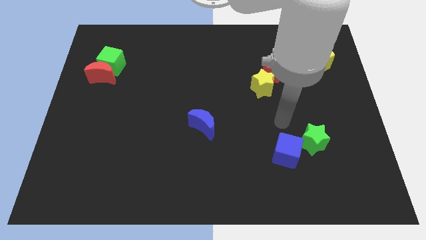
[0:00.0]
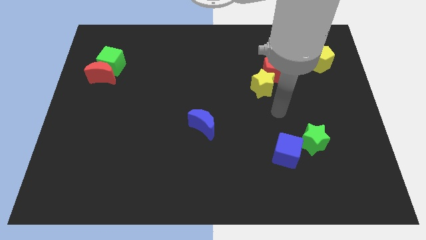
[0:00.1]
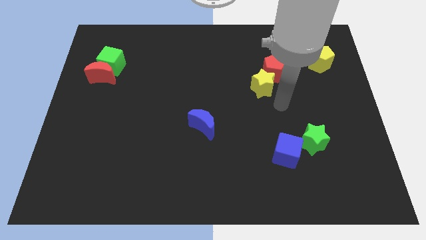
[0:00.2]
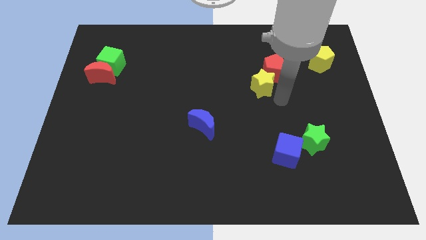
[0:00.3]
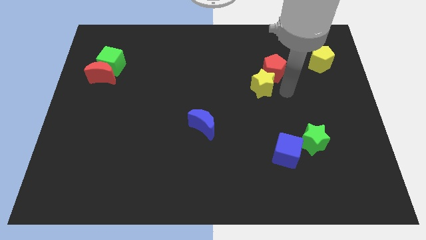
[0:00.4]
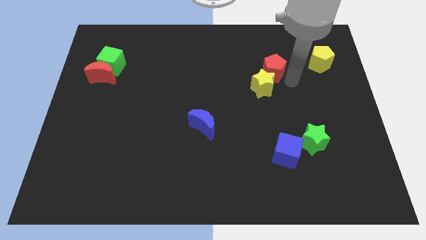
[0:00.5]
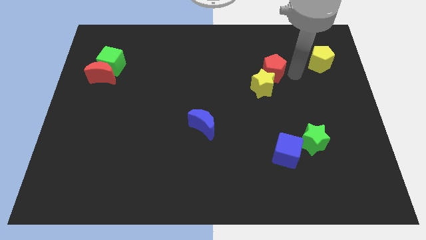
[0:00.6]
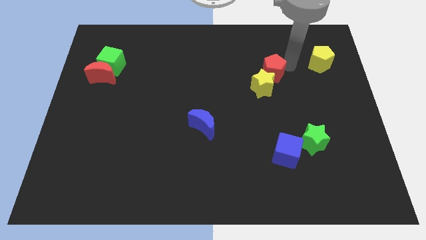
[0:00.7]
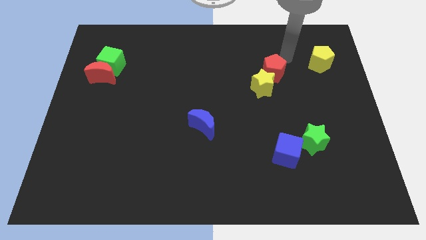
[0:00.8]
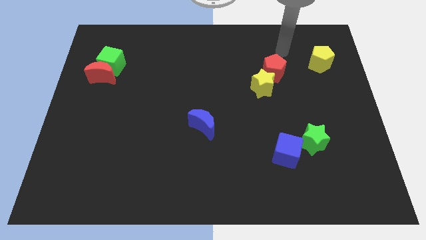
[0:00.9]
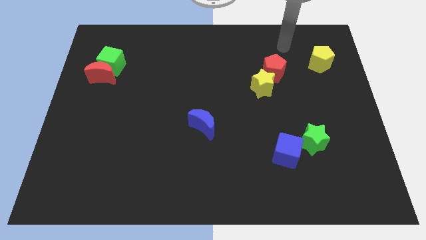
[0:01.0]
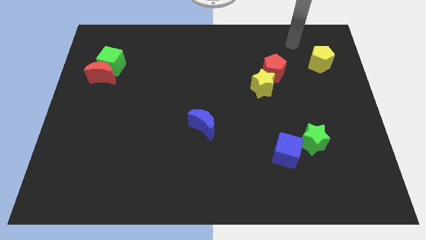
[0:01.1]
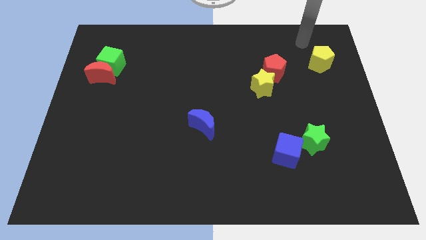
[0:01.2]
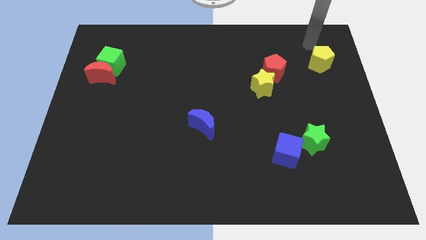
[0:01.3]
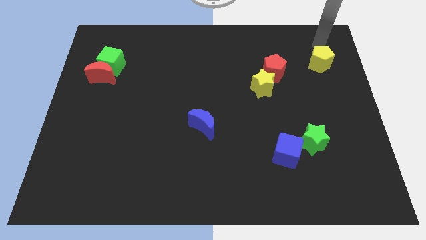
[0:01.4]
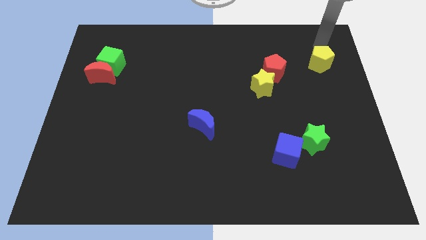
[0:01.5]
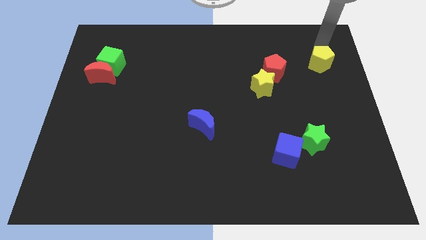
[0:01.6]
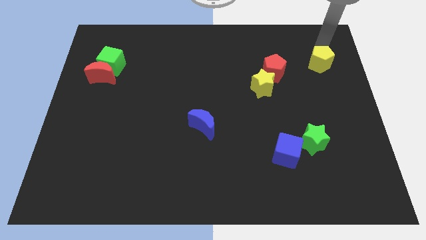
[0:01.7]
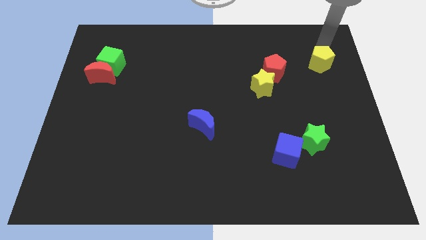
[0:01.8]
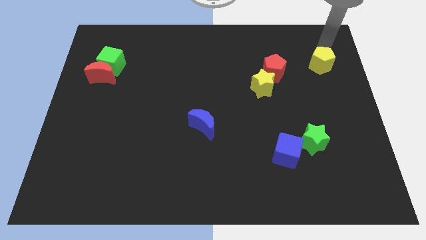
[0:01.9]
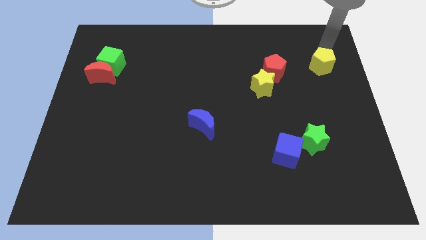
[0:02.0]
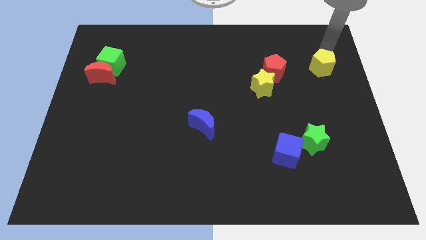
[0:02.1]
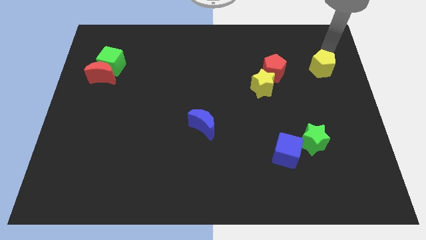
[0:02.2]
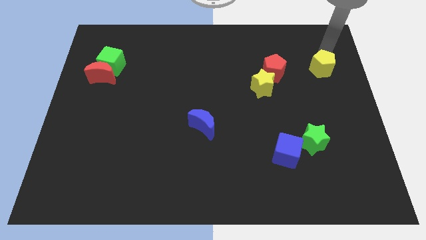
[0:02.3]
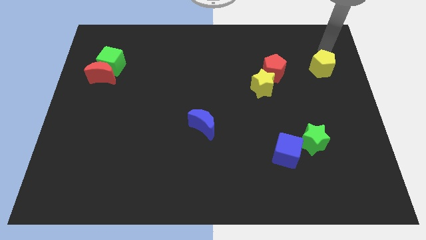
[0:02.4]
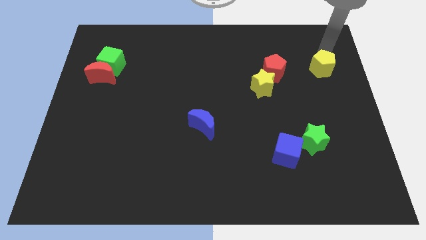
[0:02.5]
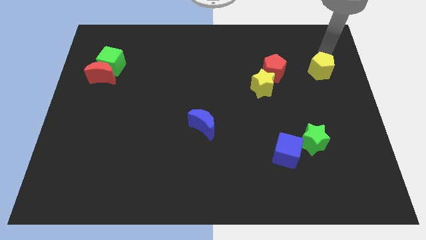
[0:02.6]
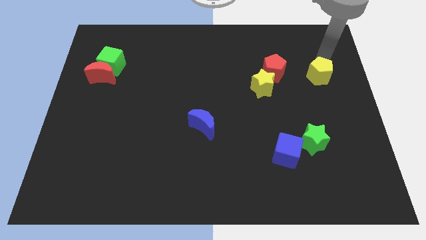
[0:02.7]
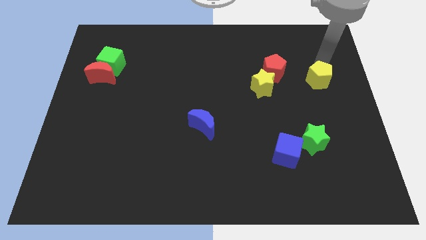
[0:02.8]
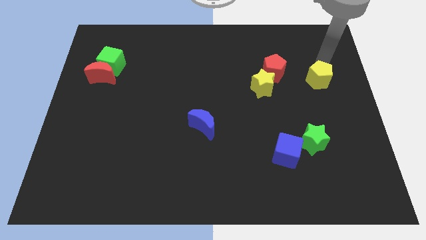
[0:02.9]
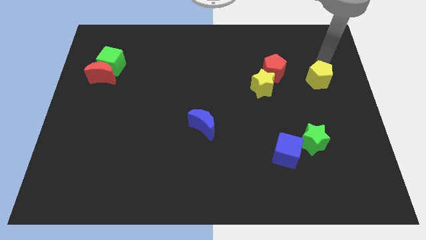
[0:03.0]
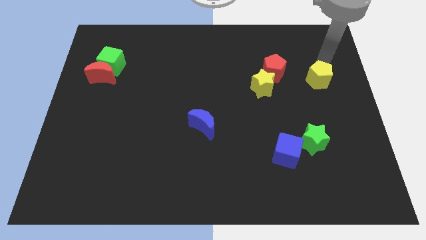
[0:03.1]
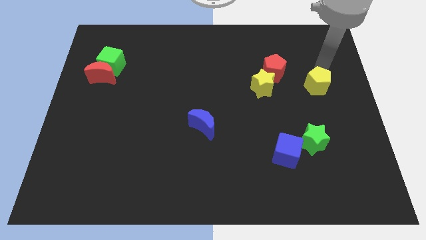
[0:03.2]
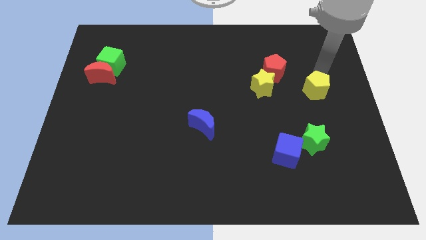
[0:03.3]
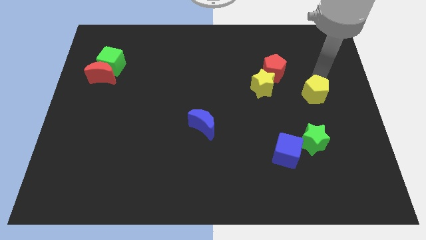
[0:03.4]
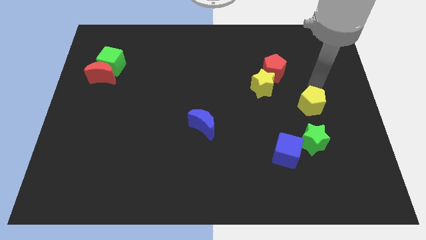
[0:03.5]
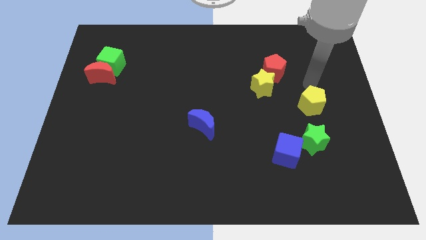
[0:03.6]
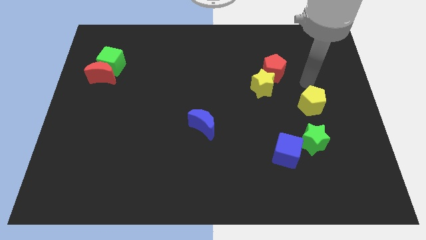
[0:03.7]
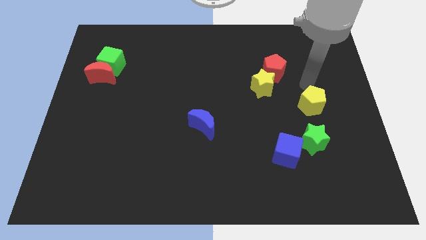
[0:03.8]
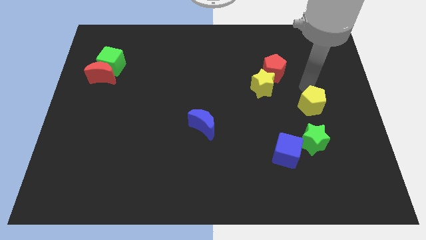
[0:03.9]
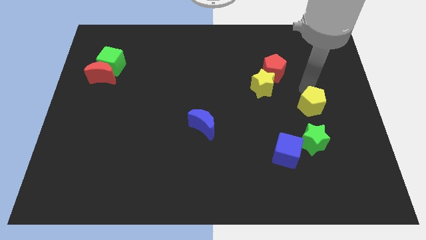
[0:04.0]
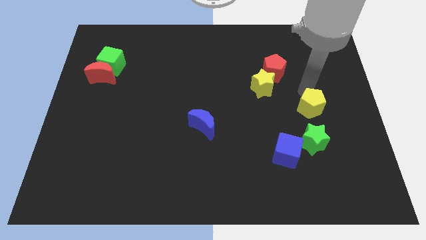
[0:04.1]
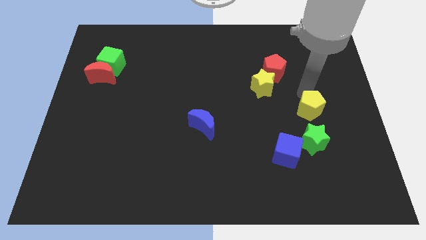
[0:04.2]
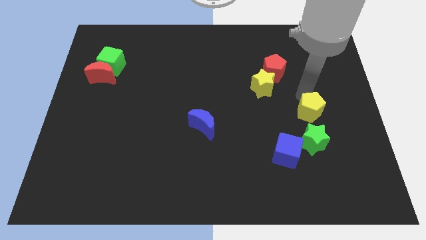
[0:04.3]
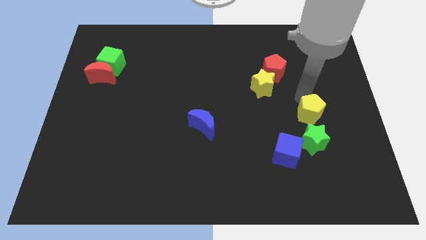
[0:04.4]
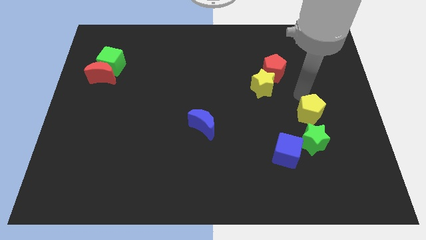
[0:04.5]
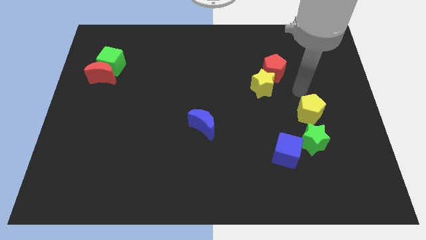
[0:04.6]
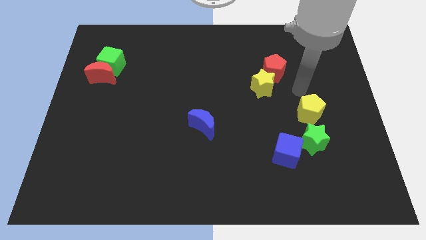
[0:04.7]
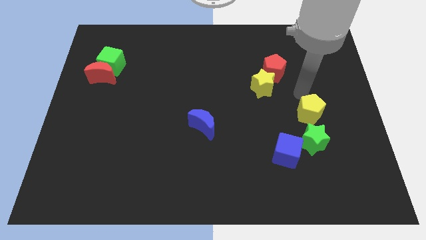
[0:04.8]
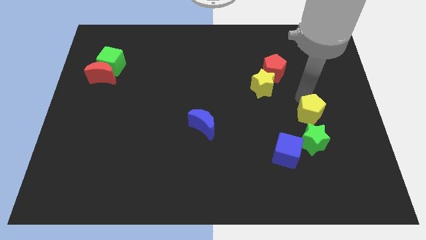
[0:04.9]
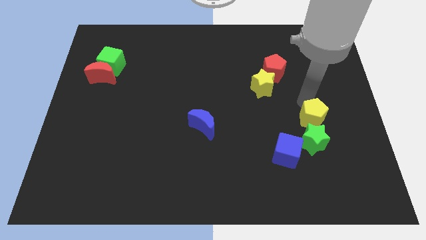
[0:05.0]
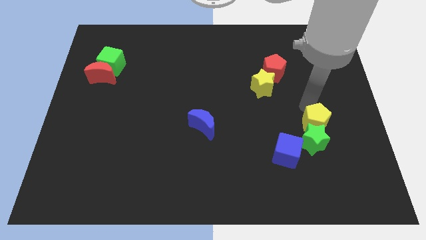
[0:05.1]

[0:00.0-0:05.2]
push the yellow pentagon towards the green star

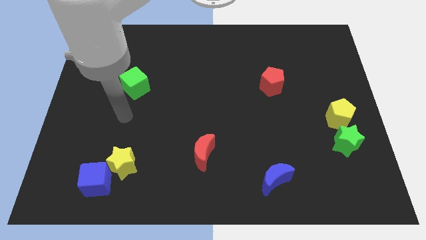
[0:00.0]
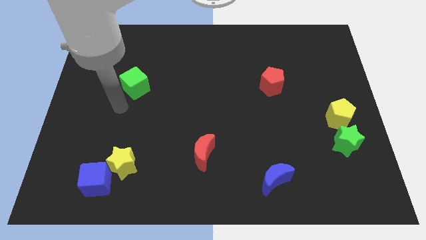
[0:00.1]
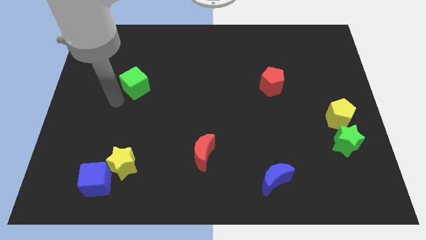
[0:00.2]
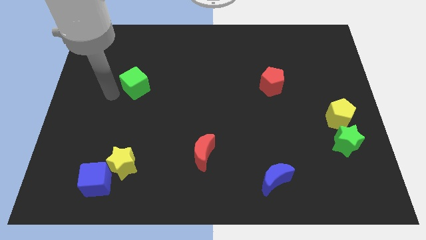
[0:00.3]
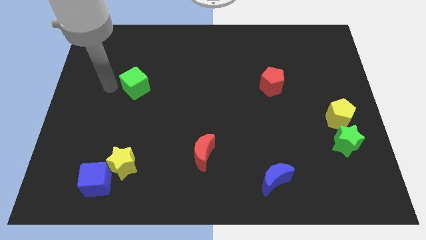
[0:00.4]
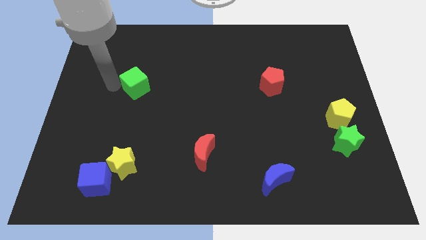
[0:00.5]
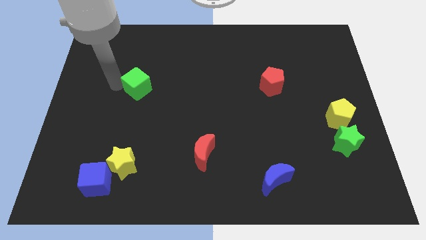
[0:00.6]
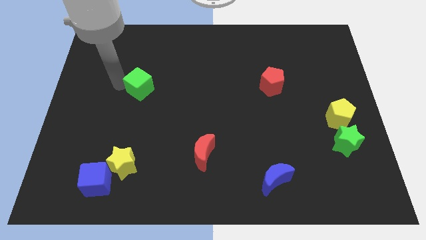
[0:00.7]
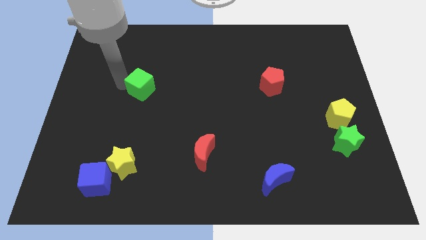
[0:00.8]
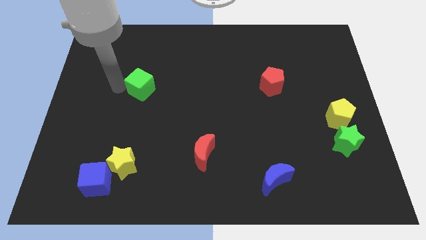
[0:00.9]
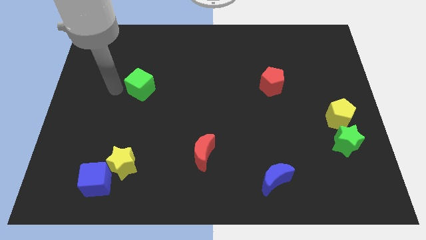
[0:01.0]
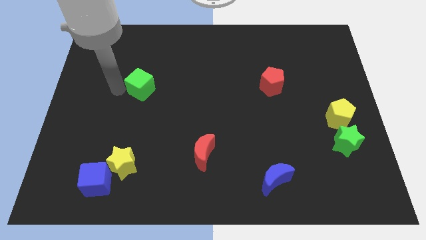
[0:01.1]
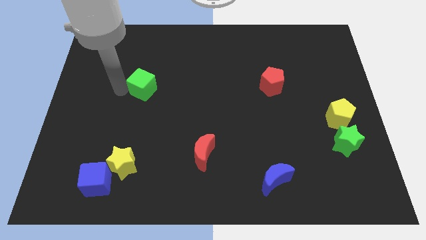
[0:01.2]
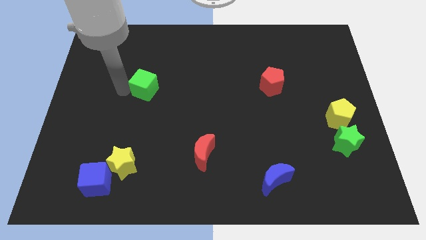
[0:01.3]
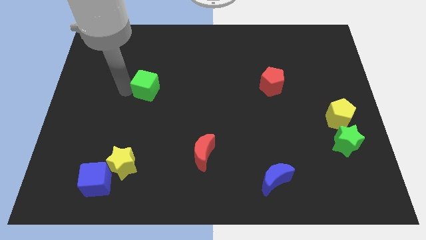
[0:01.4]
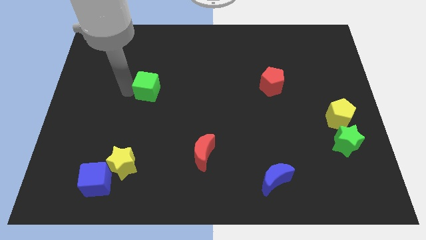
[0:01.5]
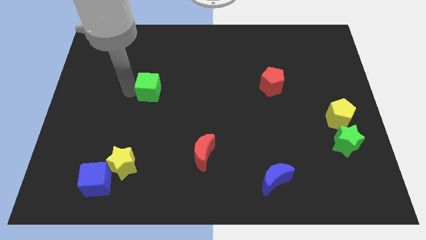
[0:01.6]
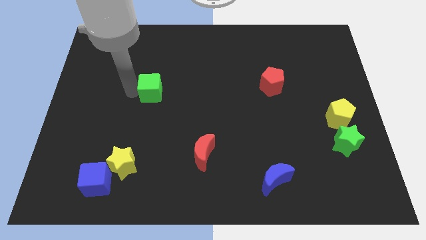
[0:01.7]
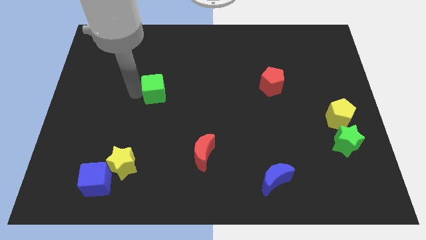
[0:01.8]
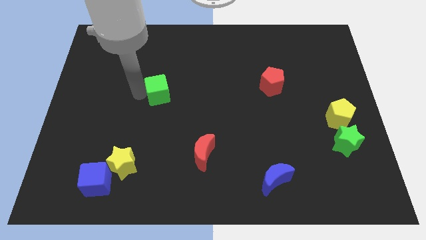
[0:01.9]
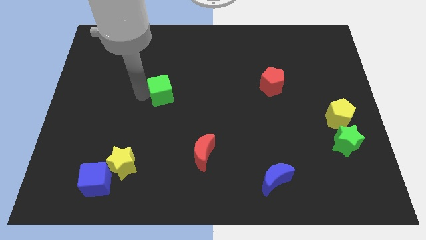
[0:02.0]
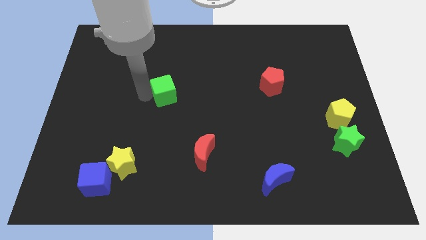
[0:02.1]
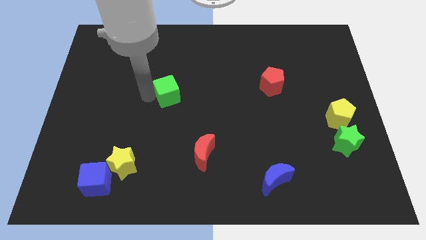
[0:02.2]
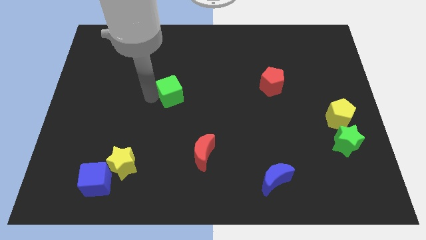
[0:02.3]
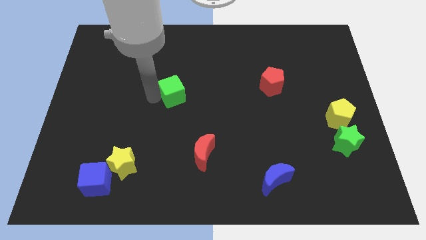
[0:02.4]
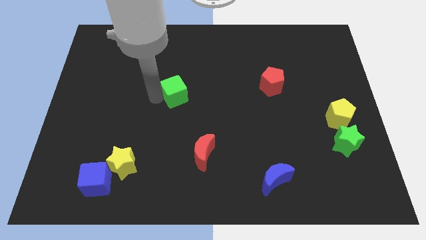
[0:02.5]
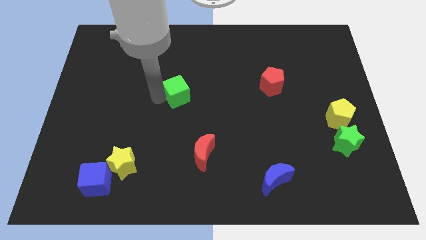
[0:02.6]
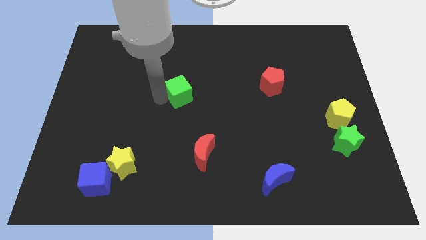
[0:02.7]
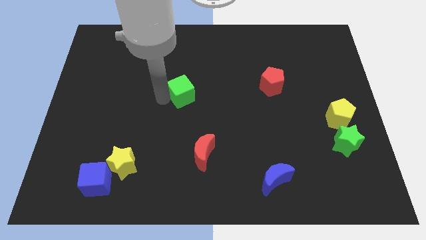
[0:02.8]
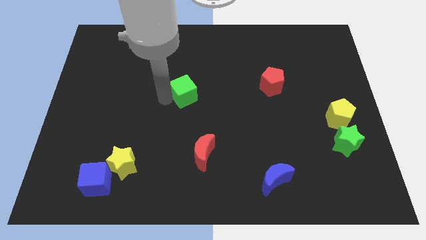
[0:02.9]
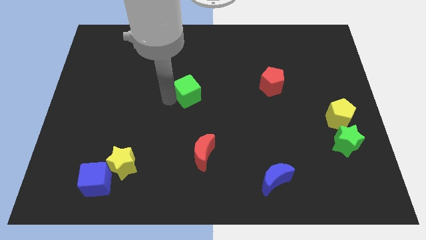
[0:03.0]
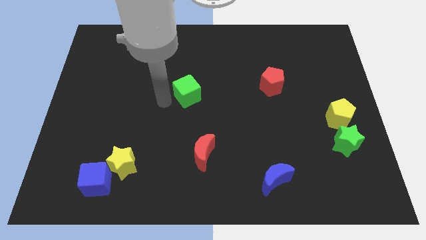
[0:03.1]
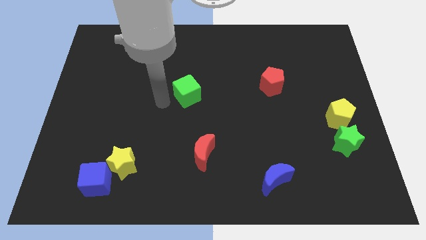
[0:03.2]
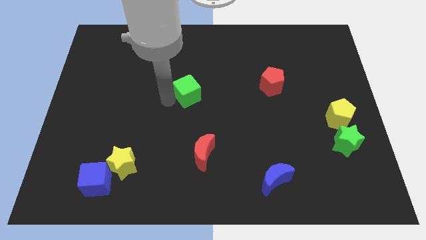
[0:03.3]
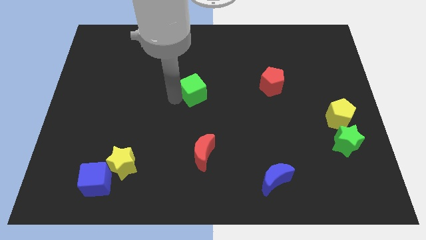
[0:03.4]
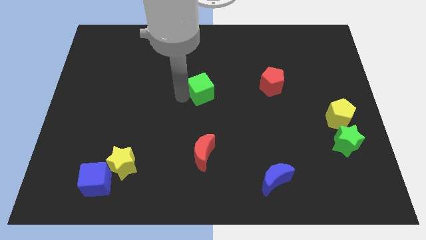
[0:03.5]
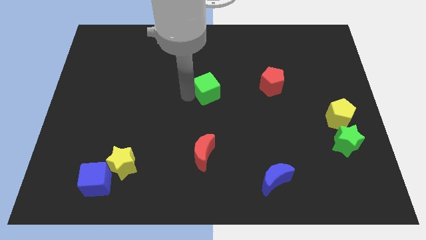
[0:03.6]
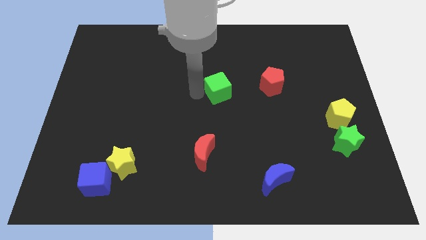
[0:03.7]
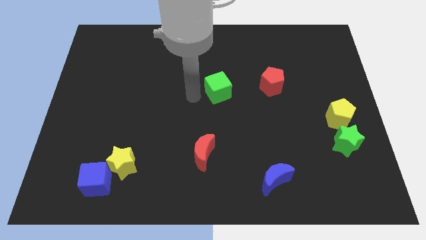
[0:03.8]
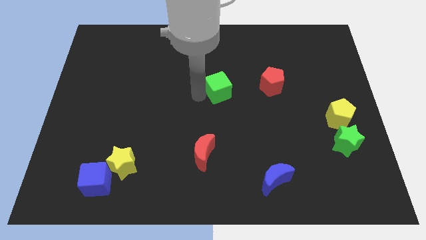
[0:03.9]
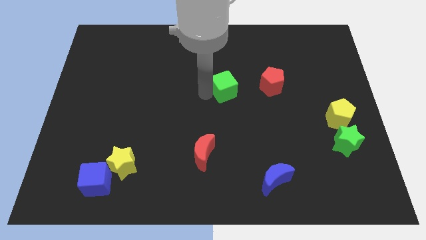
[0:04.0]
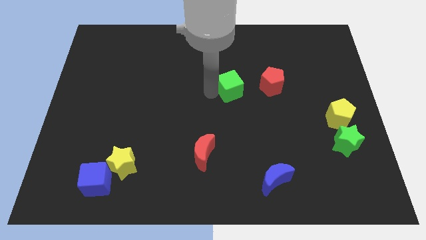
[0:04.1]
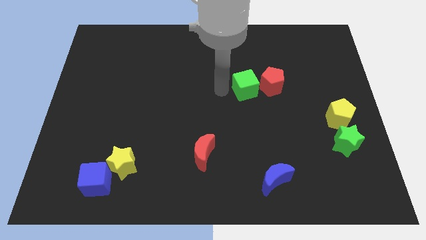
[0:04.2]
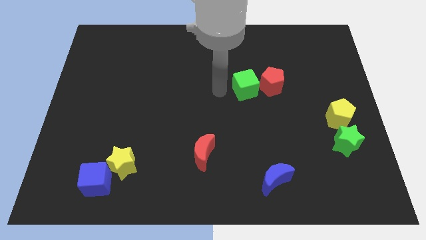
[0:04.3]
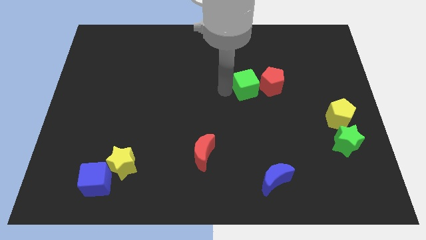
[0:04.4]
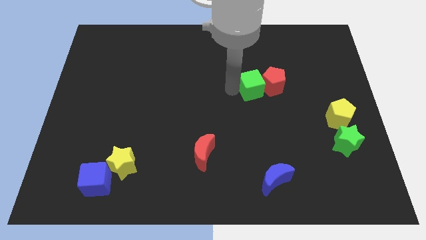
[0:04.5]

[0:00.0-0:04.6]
slide the green cube to the red pentagon
